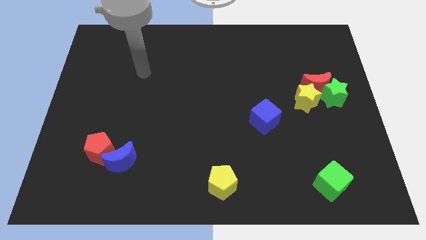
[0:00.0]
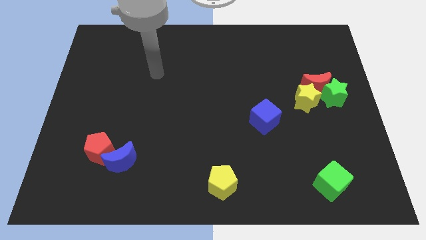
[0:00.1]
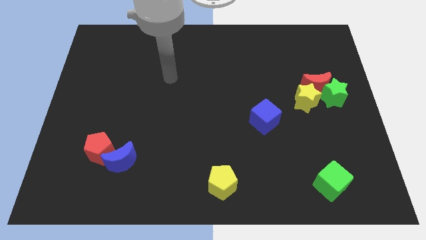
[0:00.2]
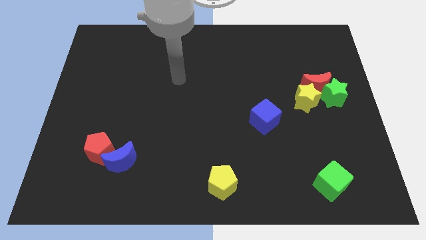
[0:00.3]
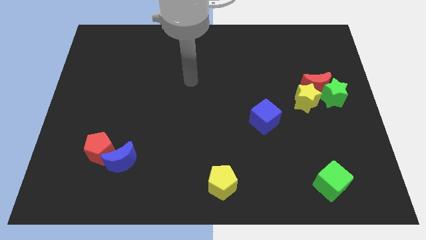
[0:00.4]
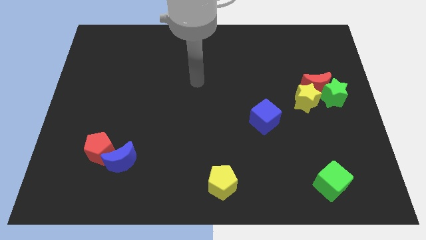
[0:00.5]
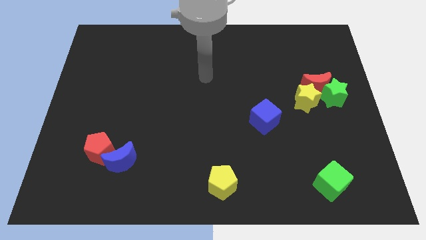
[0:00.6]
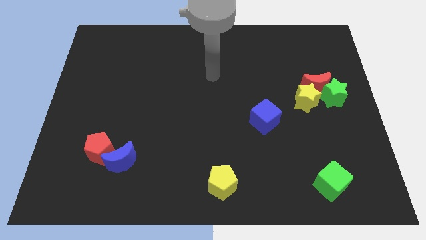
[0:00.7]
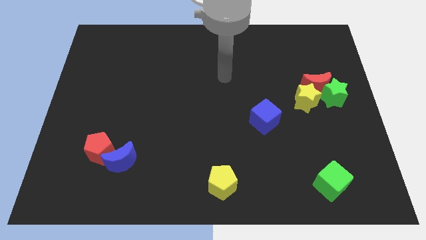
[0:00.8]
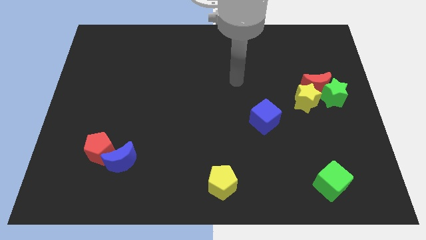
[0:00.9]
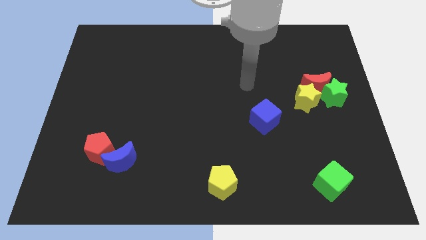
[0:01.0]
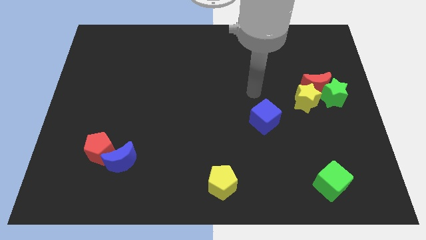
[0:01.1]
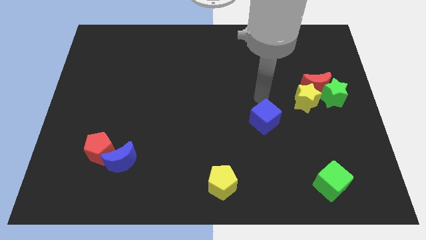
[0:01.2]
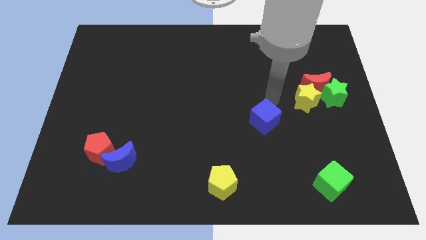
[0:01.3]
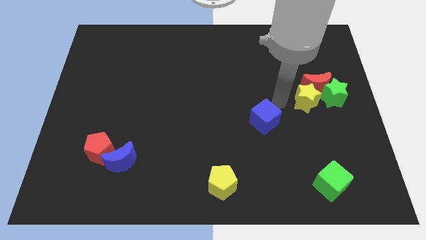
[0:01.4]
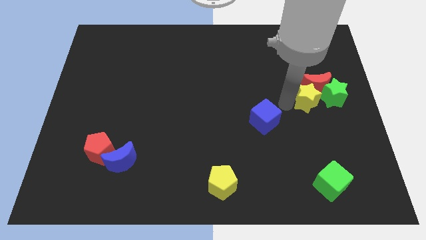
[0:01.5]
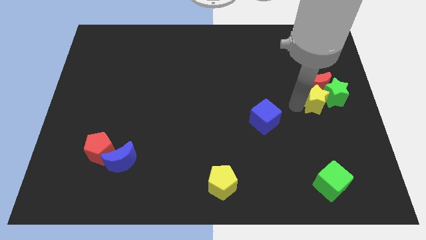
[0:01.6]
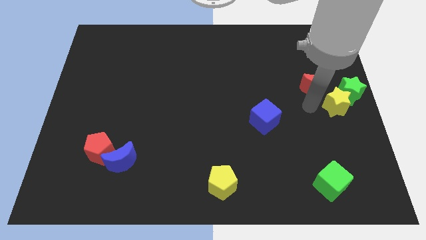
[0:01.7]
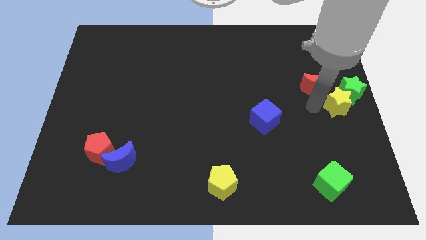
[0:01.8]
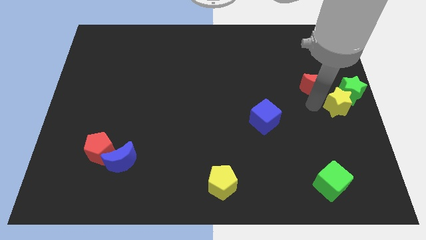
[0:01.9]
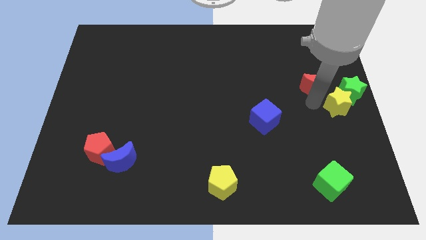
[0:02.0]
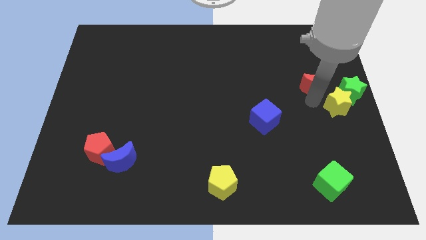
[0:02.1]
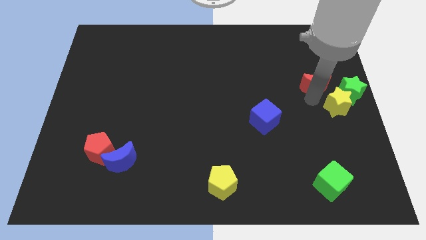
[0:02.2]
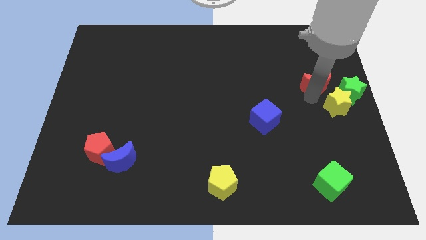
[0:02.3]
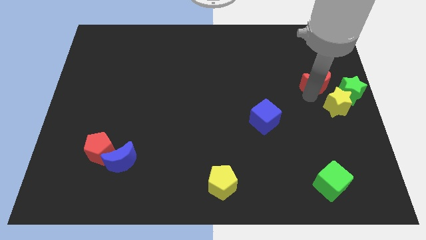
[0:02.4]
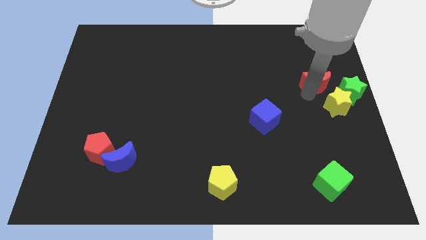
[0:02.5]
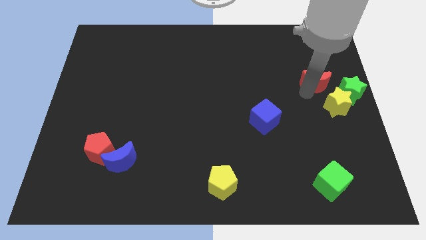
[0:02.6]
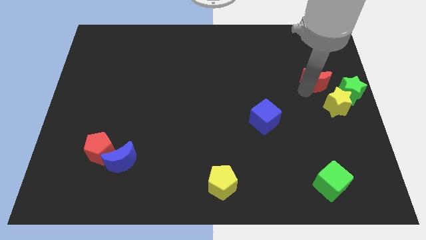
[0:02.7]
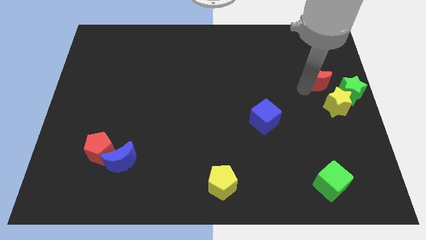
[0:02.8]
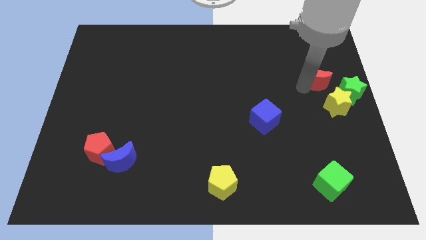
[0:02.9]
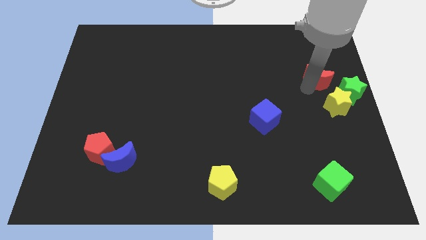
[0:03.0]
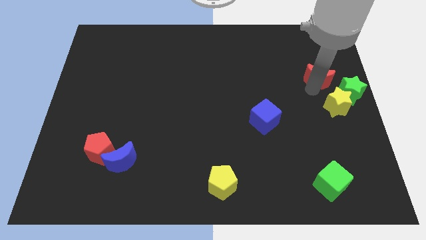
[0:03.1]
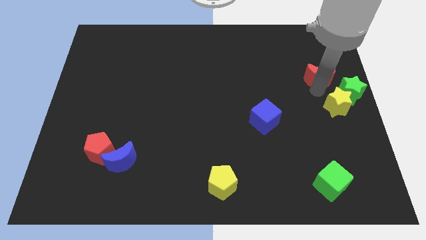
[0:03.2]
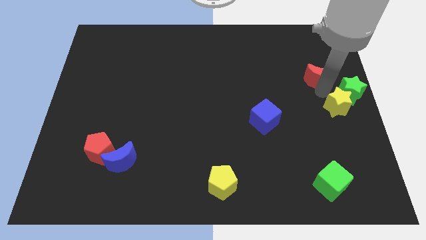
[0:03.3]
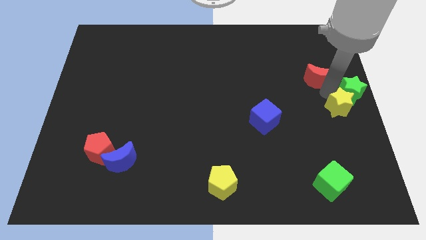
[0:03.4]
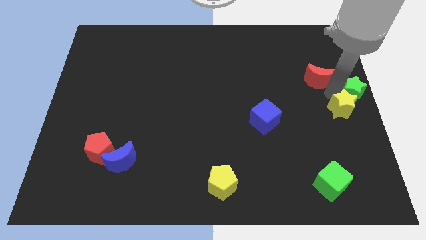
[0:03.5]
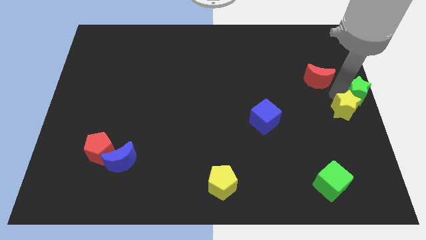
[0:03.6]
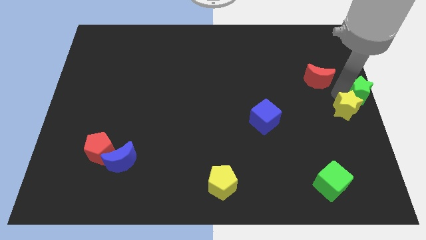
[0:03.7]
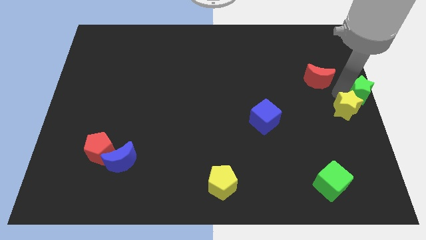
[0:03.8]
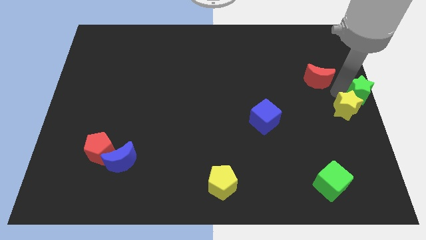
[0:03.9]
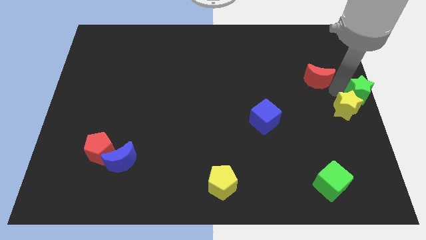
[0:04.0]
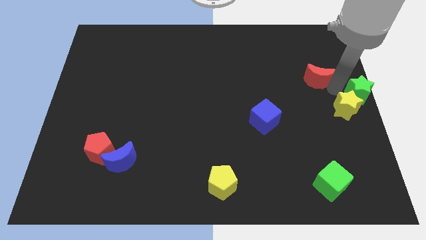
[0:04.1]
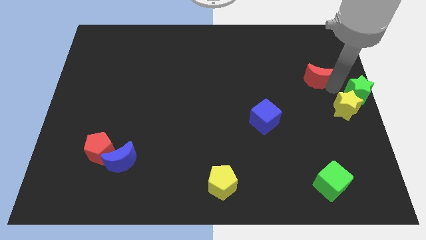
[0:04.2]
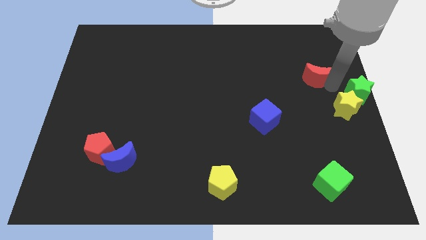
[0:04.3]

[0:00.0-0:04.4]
separate the red moon from the green star and yellow star

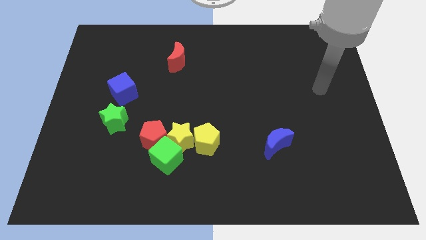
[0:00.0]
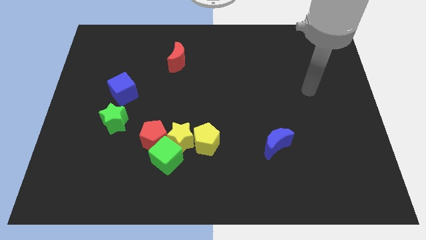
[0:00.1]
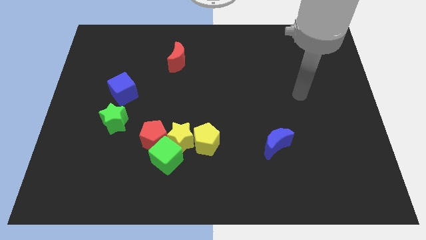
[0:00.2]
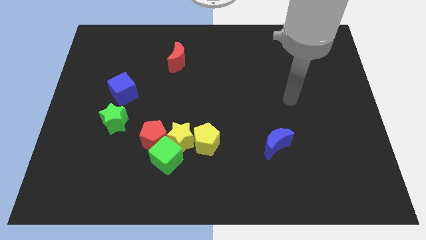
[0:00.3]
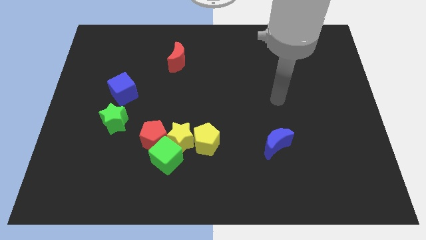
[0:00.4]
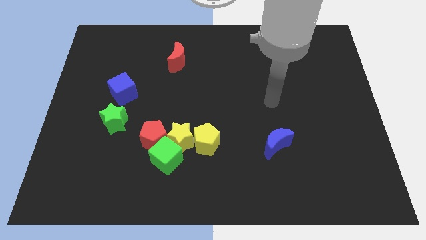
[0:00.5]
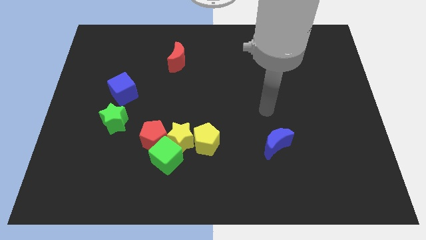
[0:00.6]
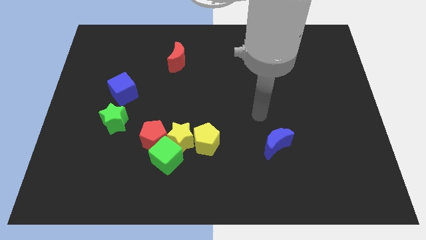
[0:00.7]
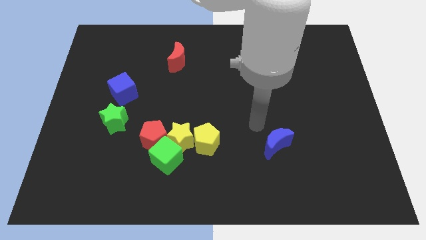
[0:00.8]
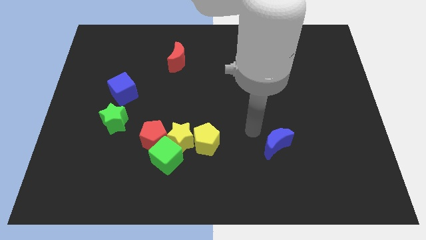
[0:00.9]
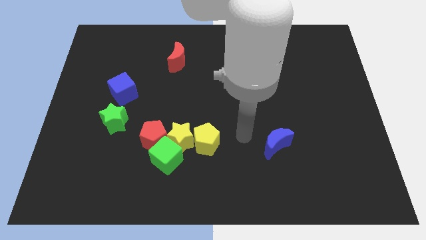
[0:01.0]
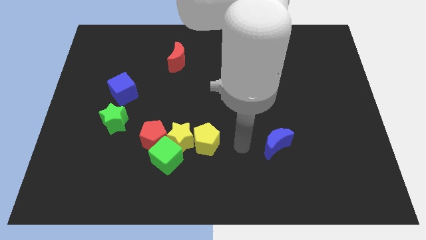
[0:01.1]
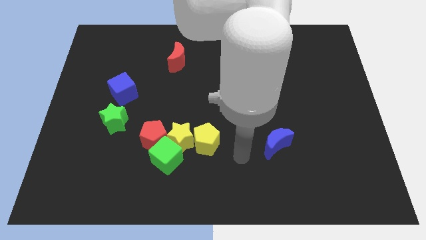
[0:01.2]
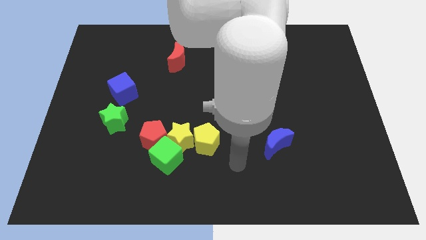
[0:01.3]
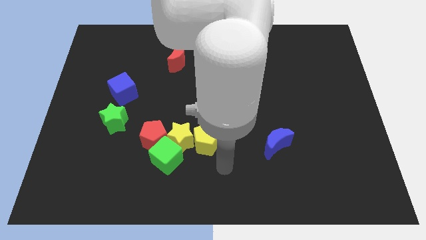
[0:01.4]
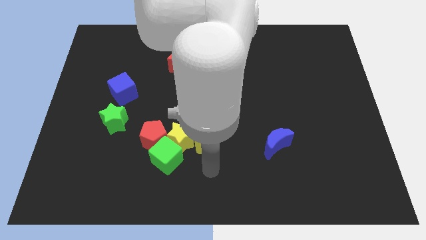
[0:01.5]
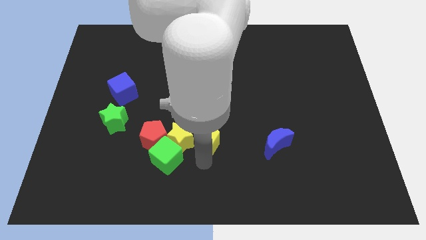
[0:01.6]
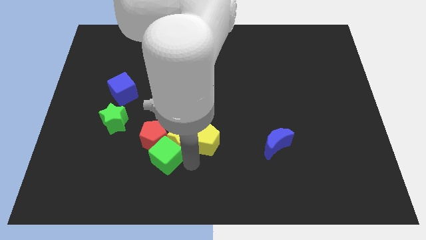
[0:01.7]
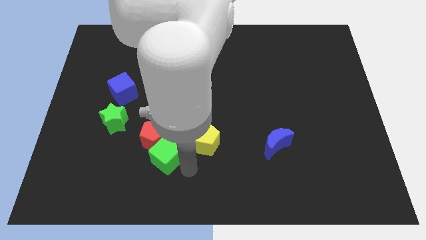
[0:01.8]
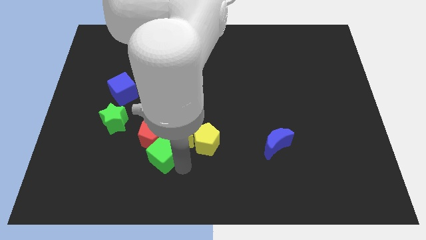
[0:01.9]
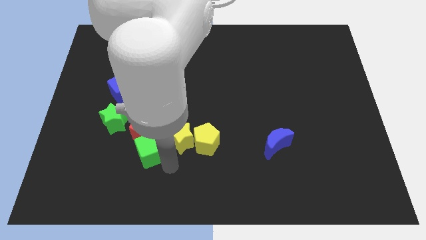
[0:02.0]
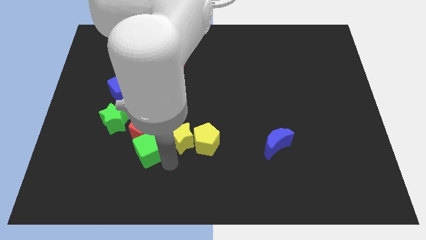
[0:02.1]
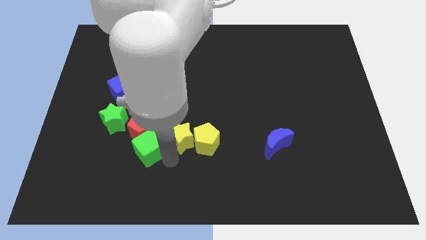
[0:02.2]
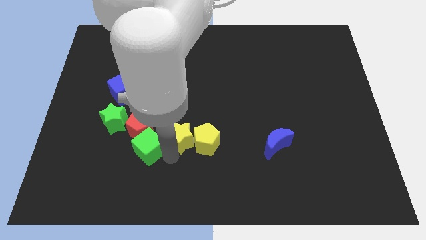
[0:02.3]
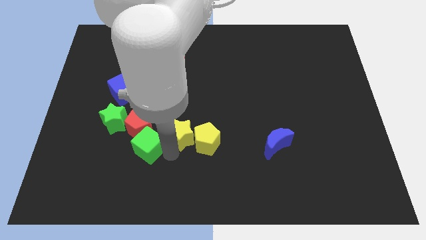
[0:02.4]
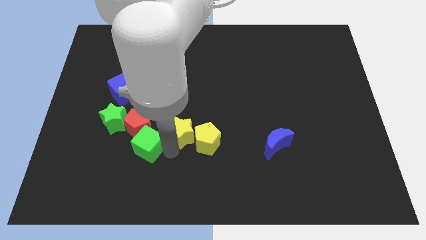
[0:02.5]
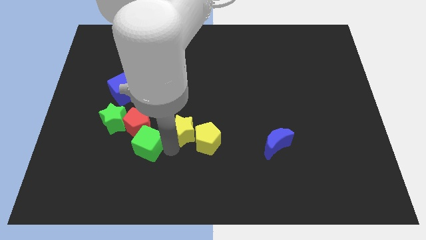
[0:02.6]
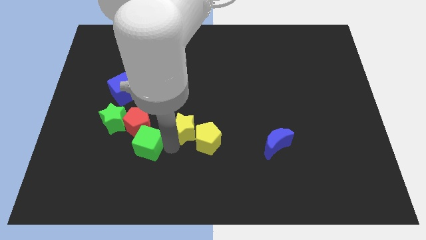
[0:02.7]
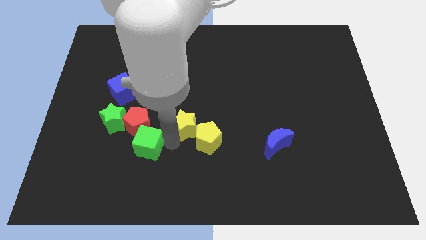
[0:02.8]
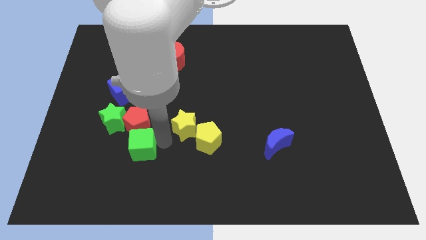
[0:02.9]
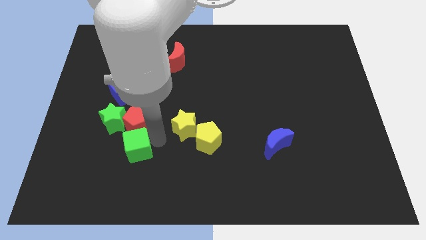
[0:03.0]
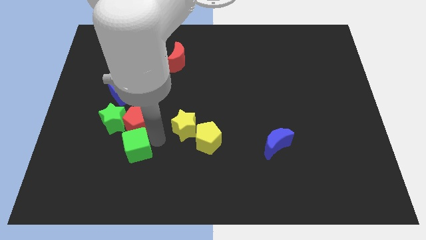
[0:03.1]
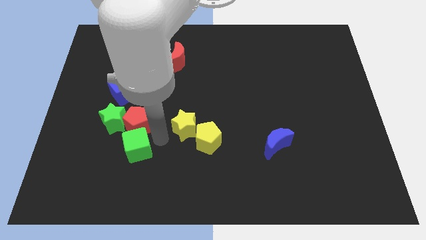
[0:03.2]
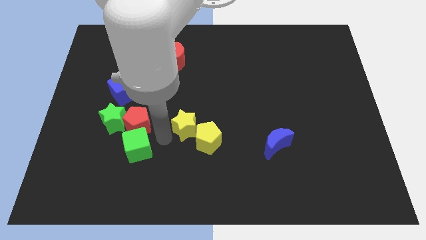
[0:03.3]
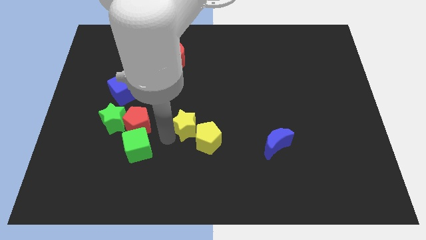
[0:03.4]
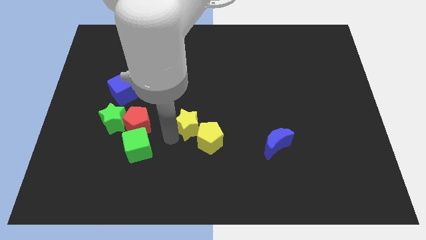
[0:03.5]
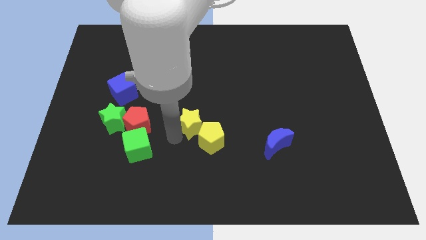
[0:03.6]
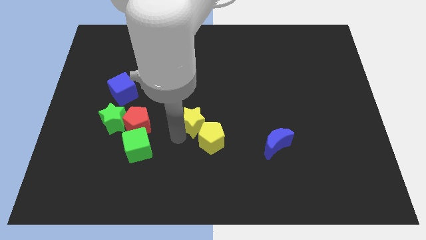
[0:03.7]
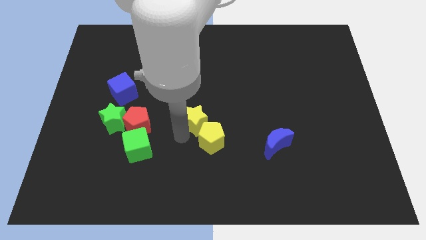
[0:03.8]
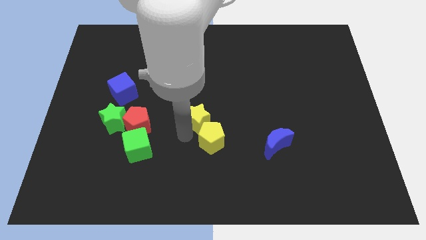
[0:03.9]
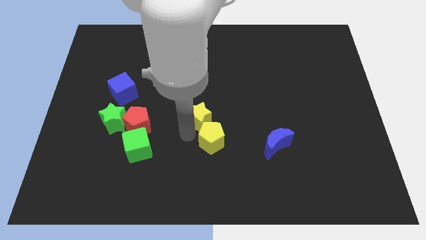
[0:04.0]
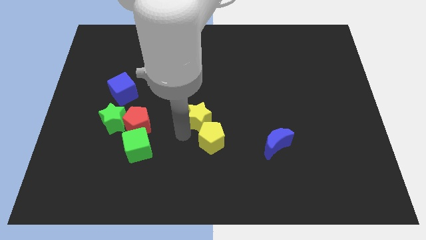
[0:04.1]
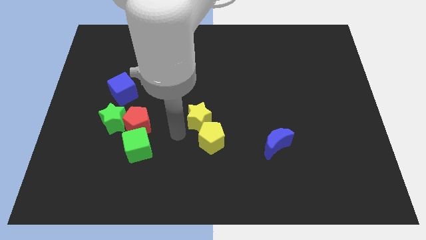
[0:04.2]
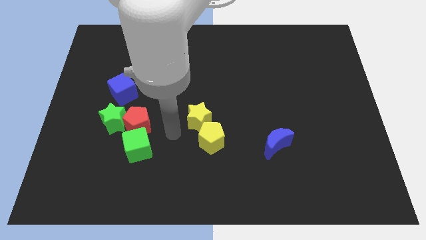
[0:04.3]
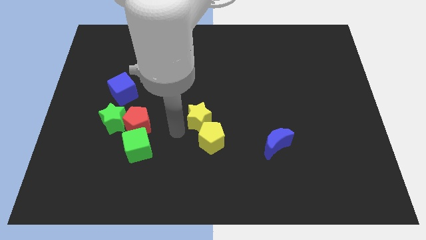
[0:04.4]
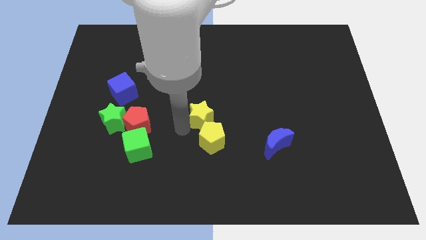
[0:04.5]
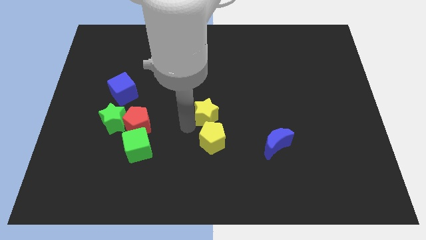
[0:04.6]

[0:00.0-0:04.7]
separate the yellow star from the clump

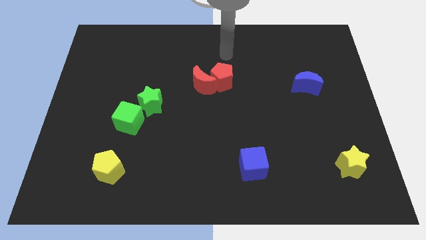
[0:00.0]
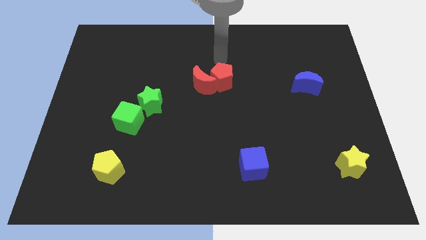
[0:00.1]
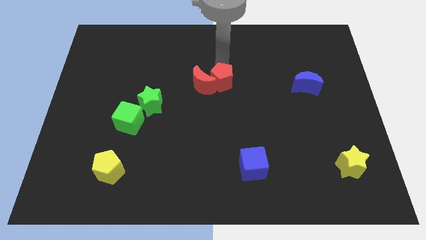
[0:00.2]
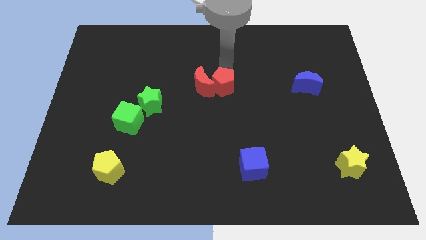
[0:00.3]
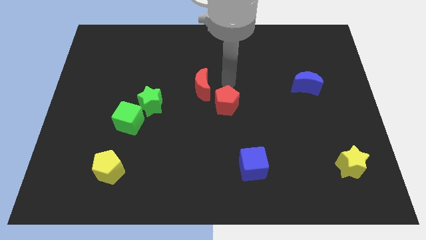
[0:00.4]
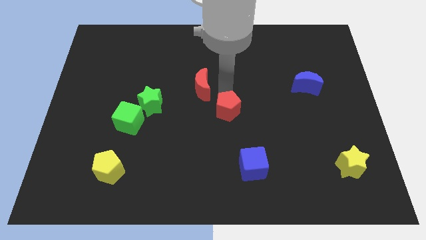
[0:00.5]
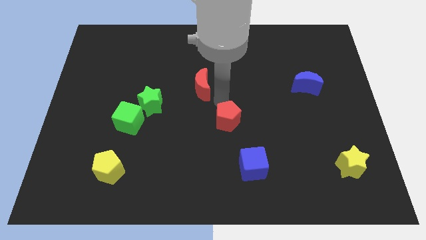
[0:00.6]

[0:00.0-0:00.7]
separate the red moon from the red pentagon
